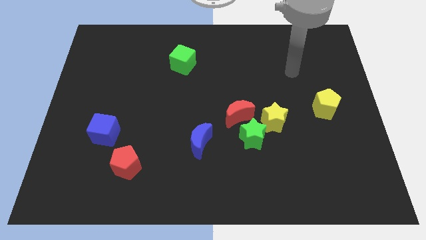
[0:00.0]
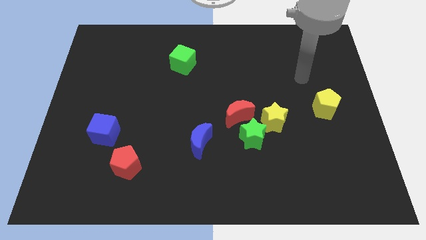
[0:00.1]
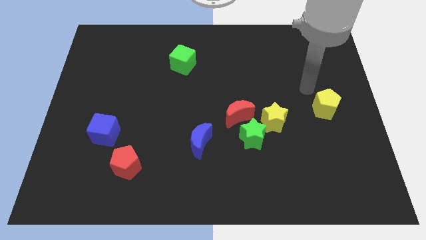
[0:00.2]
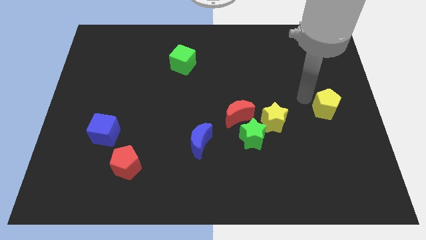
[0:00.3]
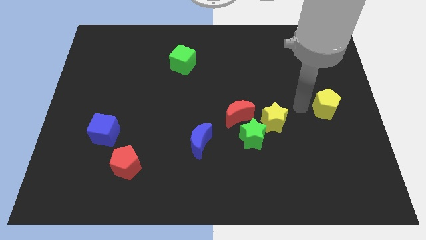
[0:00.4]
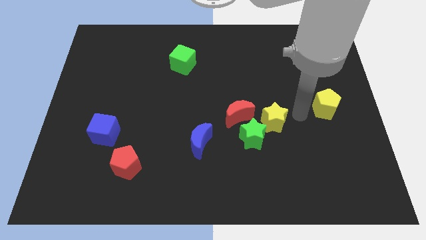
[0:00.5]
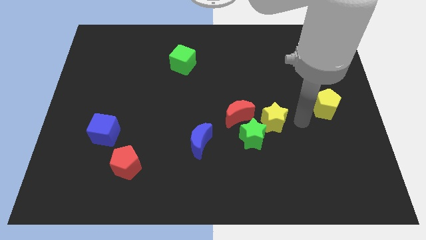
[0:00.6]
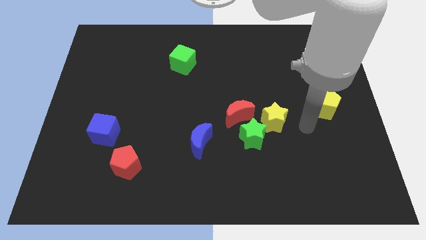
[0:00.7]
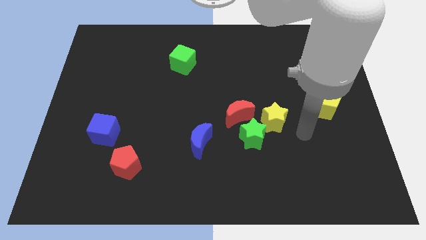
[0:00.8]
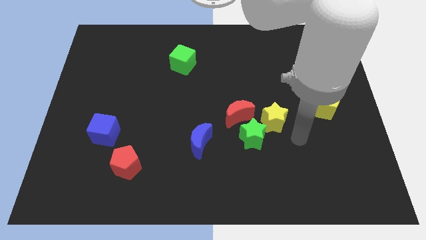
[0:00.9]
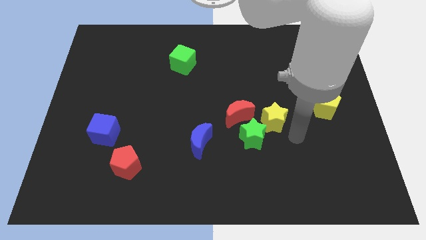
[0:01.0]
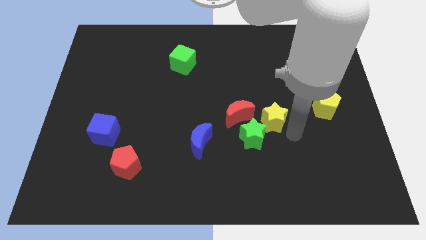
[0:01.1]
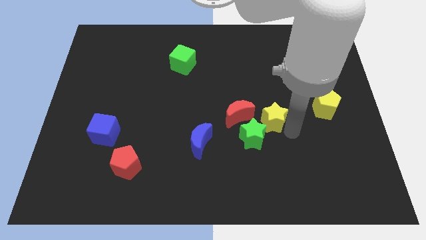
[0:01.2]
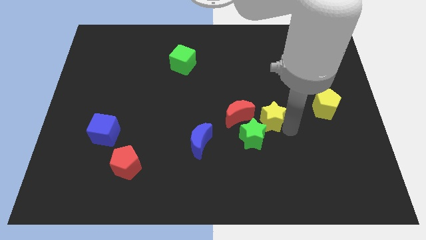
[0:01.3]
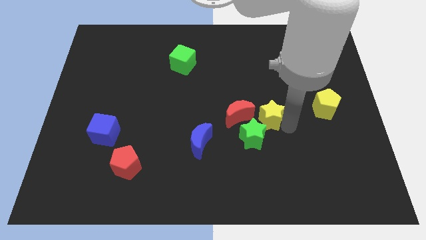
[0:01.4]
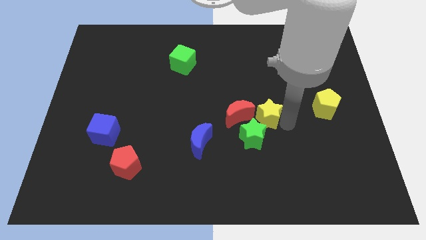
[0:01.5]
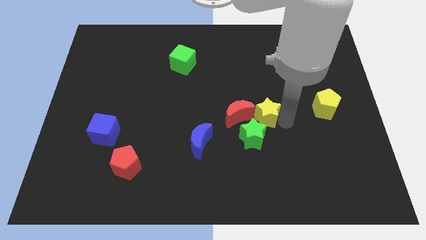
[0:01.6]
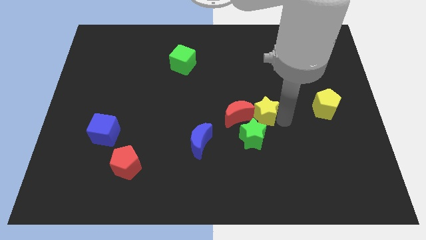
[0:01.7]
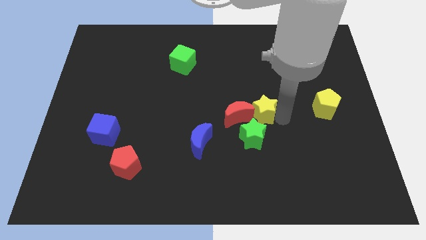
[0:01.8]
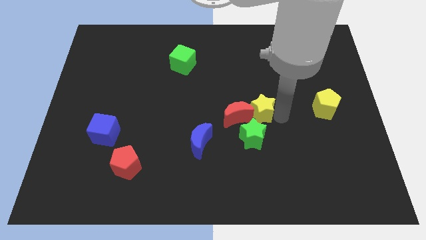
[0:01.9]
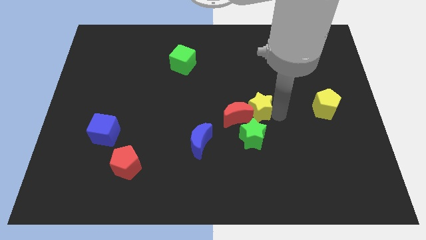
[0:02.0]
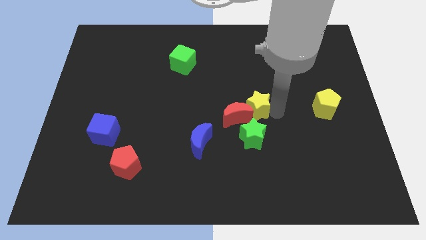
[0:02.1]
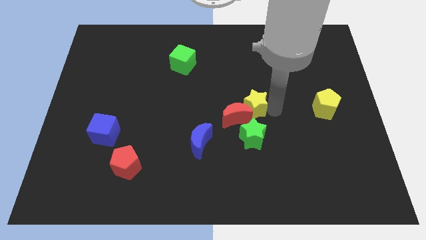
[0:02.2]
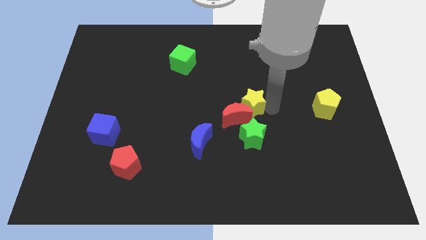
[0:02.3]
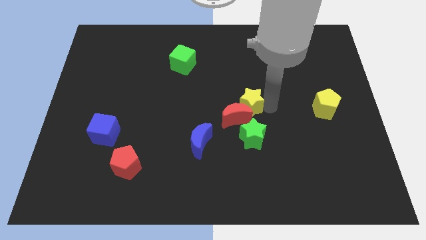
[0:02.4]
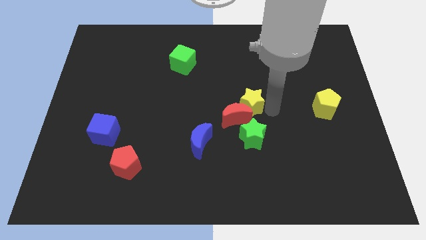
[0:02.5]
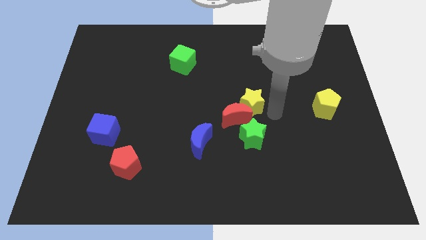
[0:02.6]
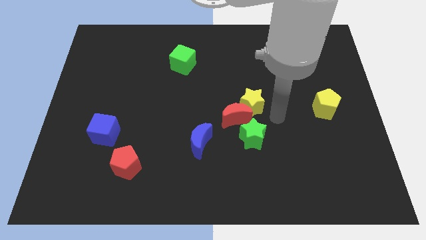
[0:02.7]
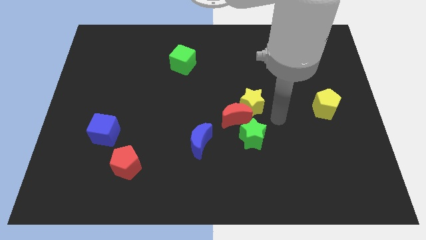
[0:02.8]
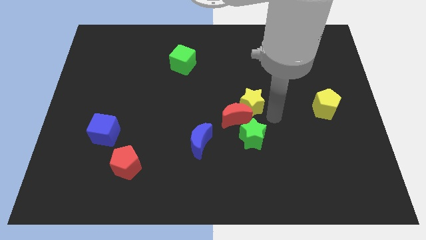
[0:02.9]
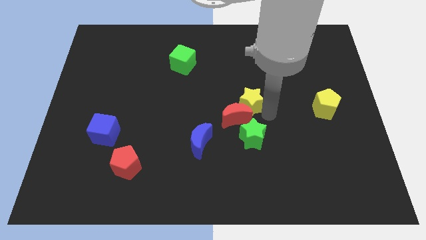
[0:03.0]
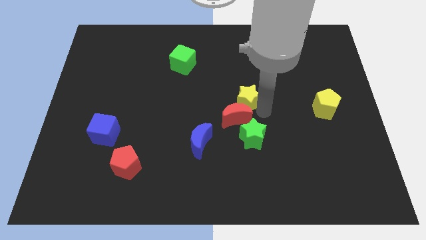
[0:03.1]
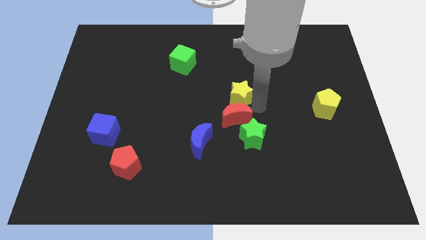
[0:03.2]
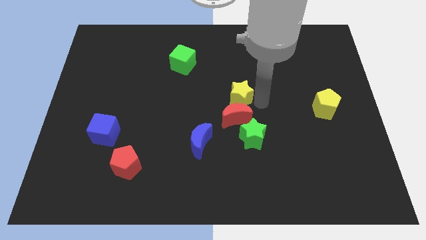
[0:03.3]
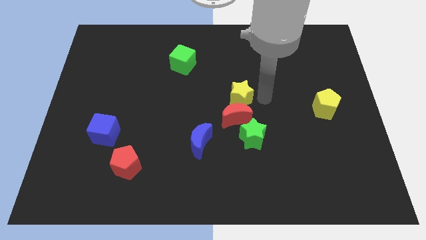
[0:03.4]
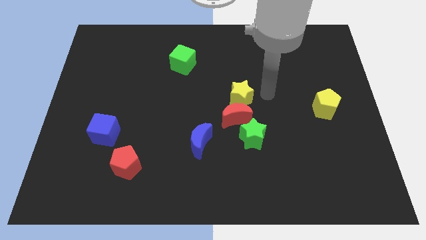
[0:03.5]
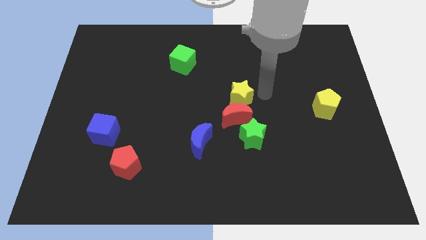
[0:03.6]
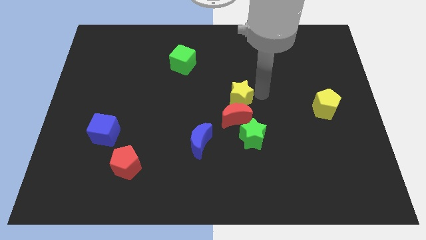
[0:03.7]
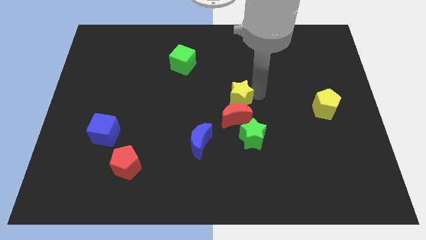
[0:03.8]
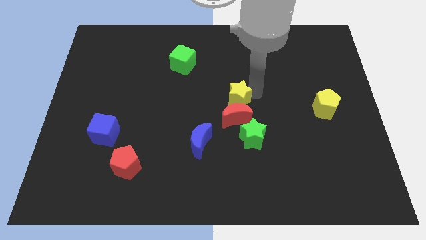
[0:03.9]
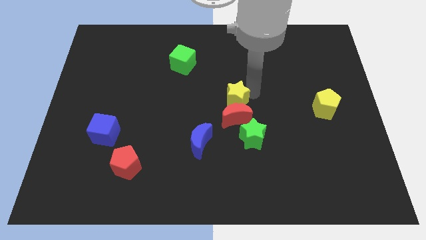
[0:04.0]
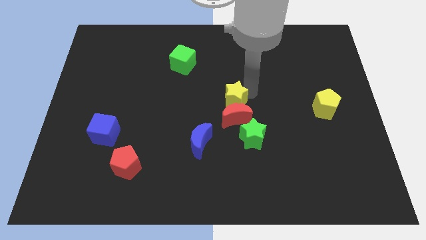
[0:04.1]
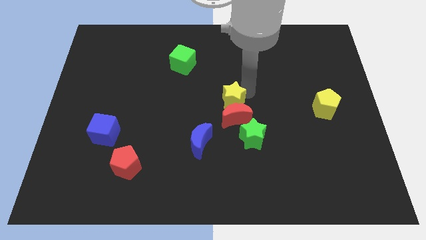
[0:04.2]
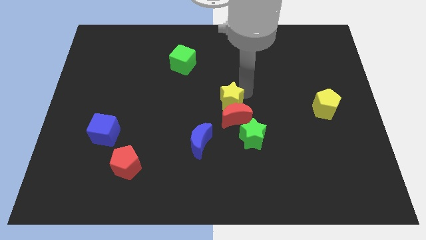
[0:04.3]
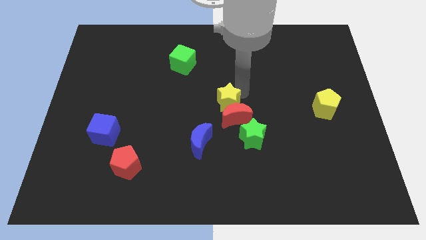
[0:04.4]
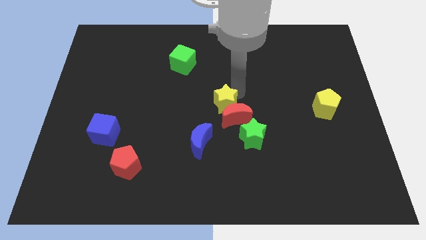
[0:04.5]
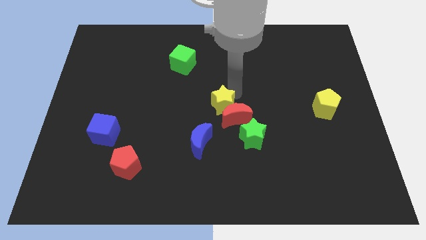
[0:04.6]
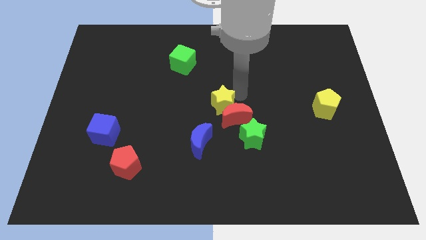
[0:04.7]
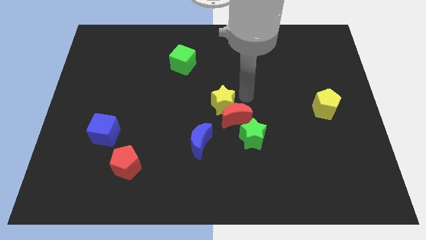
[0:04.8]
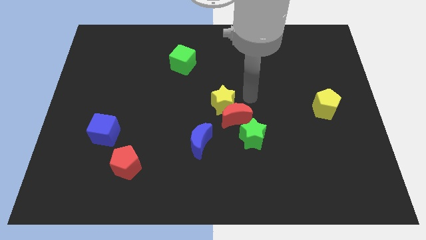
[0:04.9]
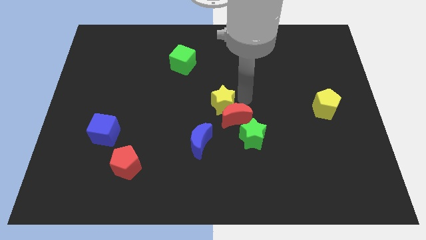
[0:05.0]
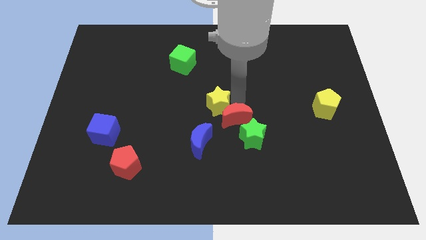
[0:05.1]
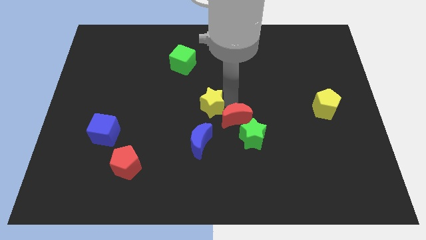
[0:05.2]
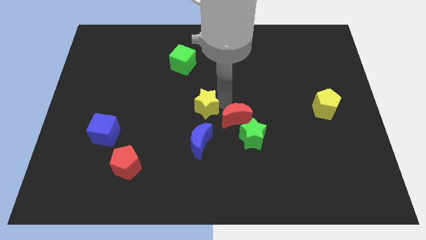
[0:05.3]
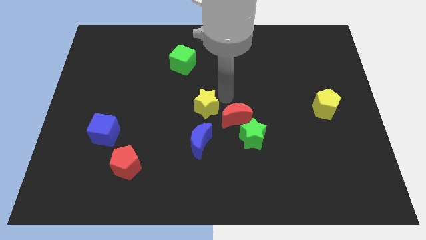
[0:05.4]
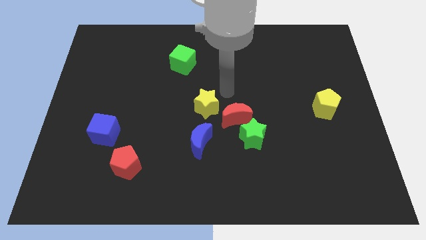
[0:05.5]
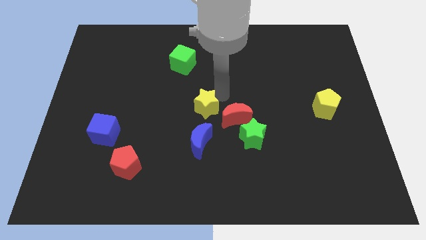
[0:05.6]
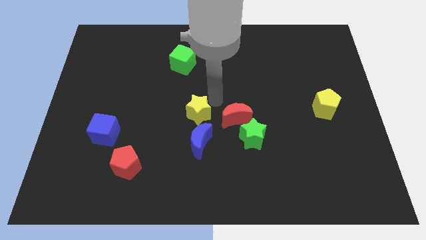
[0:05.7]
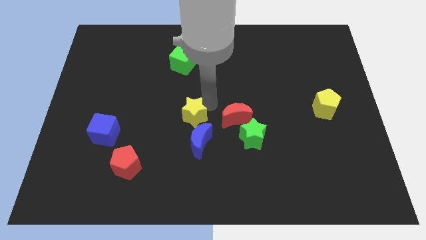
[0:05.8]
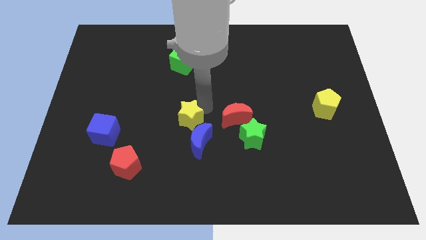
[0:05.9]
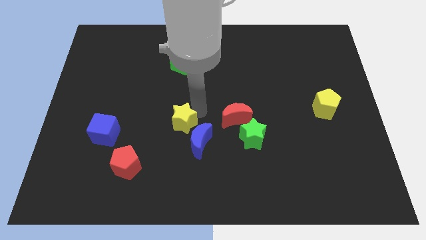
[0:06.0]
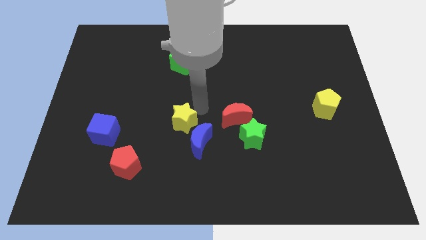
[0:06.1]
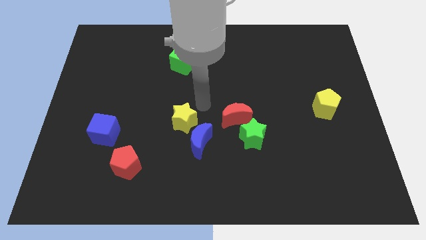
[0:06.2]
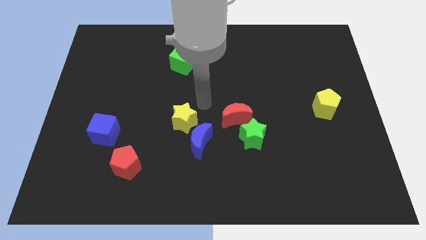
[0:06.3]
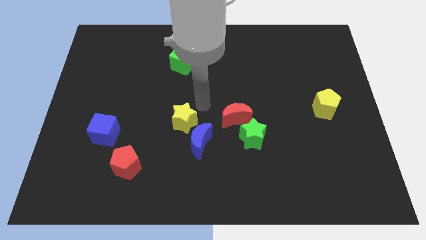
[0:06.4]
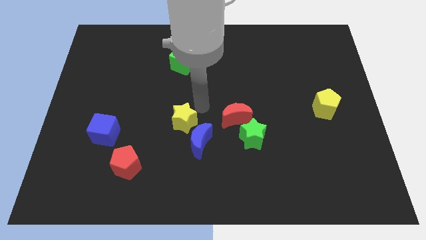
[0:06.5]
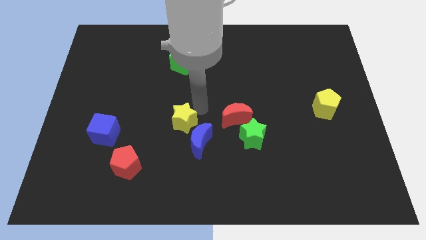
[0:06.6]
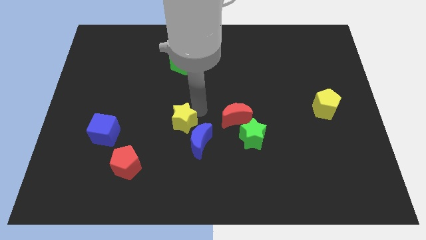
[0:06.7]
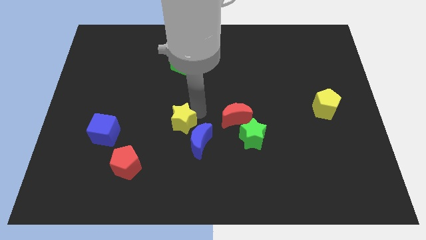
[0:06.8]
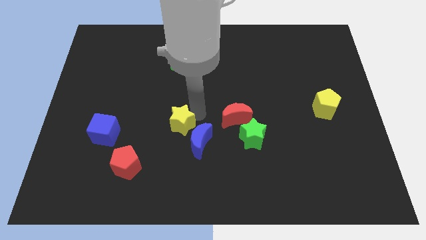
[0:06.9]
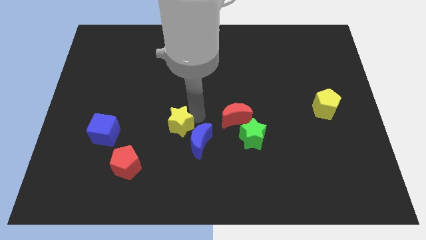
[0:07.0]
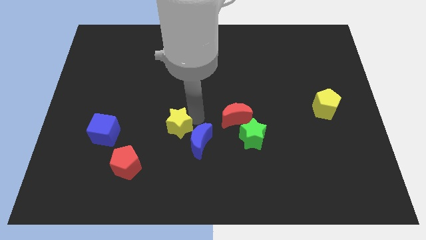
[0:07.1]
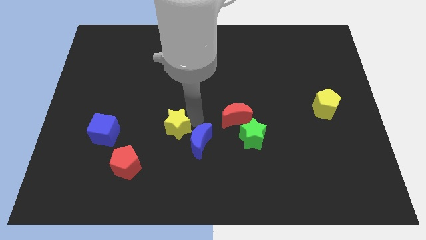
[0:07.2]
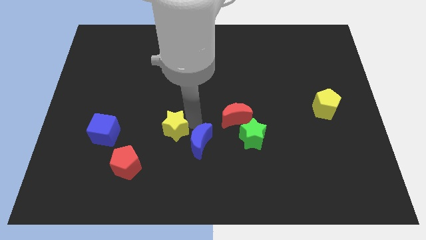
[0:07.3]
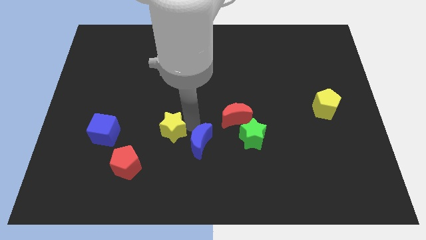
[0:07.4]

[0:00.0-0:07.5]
move the yellow star to the top right of the red pentagon
